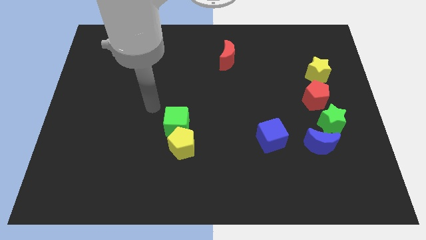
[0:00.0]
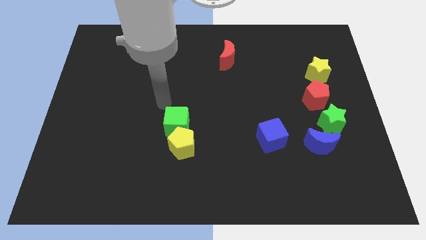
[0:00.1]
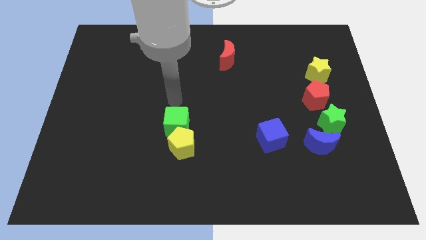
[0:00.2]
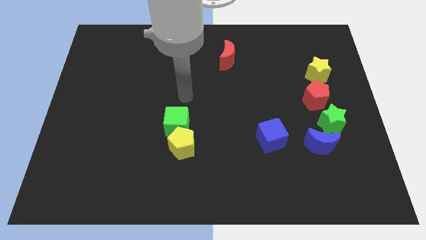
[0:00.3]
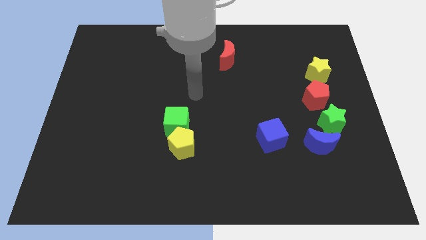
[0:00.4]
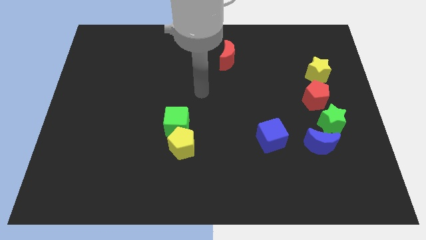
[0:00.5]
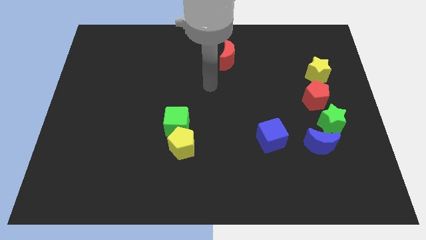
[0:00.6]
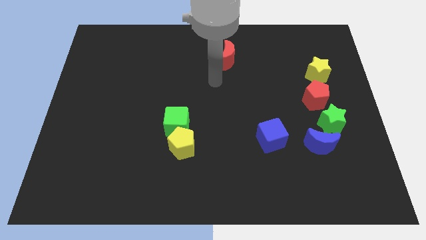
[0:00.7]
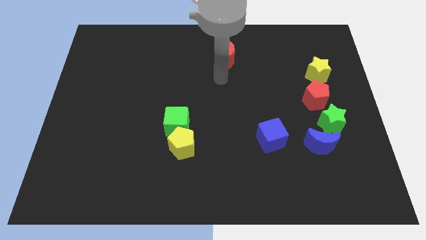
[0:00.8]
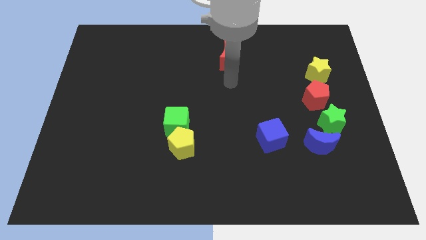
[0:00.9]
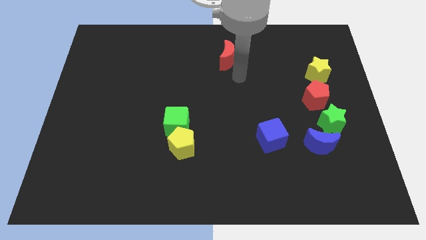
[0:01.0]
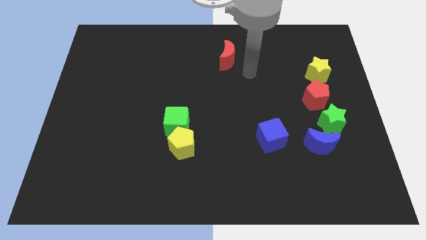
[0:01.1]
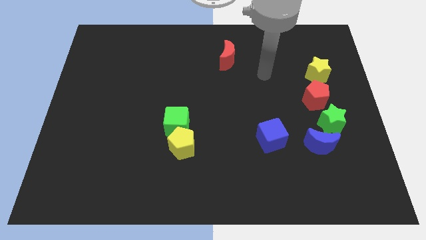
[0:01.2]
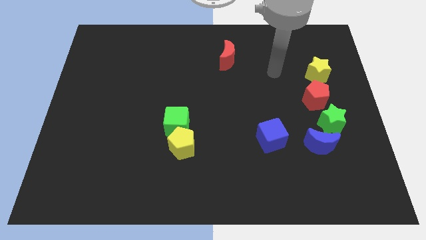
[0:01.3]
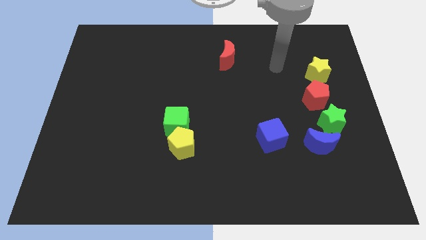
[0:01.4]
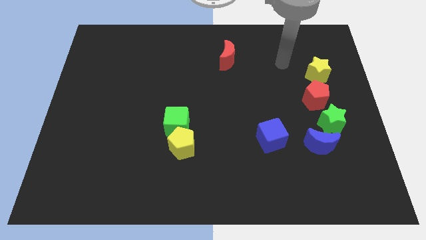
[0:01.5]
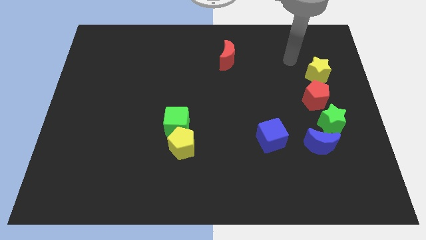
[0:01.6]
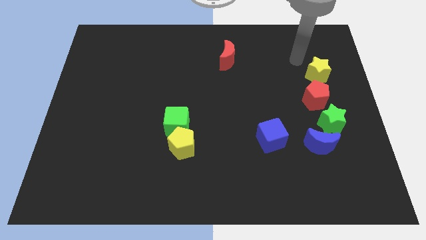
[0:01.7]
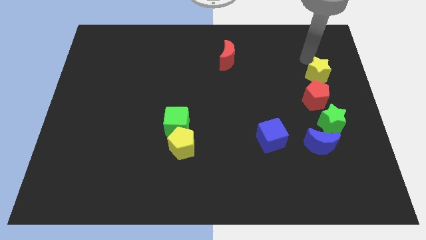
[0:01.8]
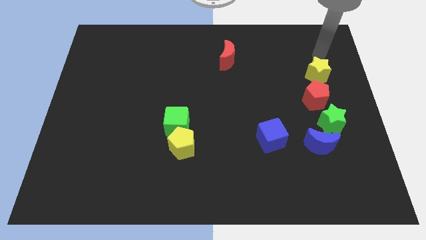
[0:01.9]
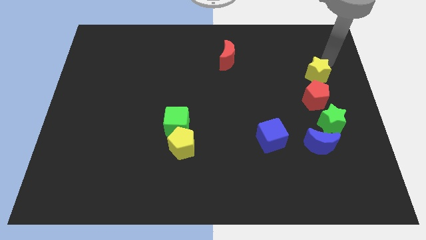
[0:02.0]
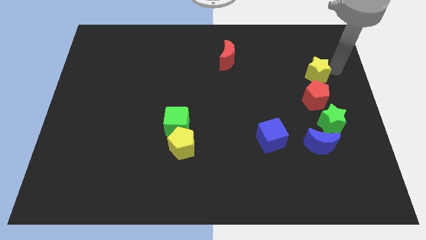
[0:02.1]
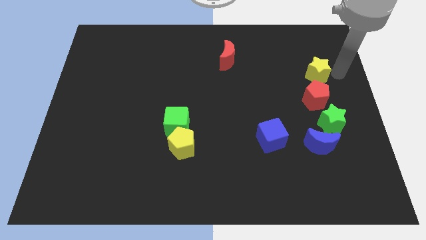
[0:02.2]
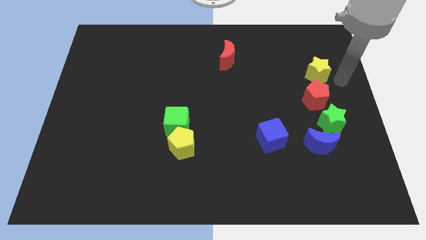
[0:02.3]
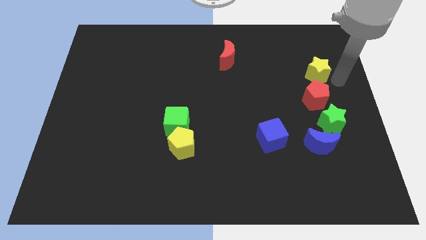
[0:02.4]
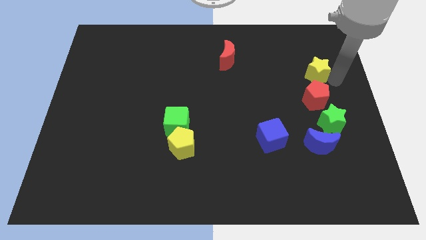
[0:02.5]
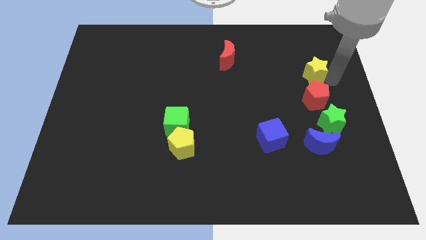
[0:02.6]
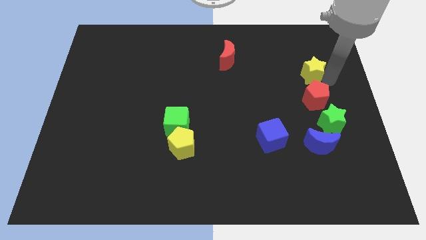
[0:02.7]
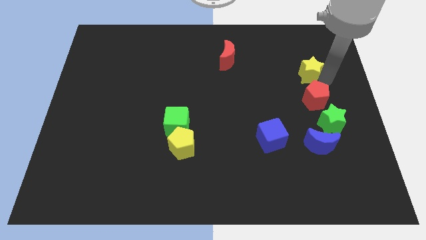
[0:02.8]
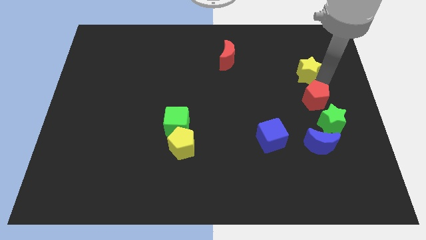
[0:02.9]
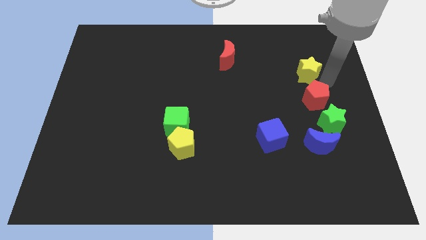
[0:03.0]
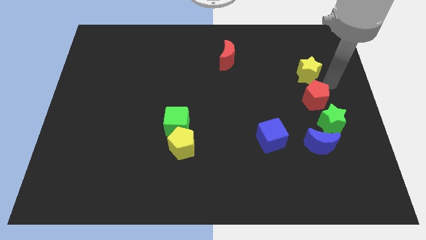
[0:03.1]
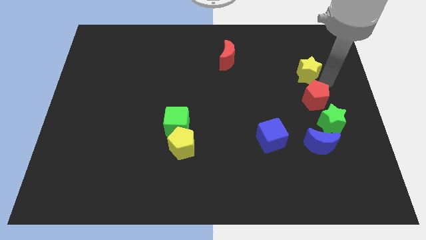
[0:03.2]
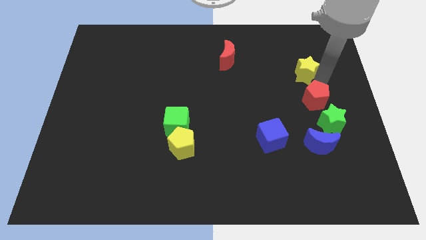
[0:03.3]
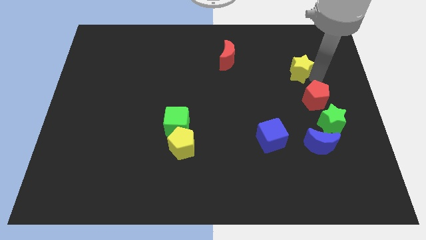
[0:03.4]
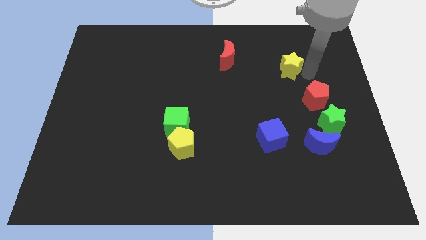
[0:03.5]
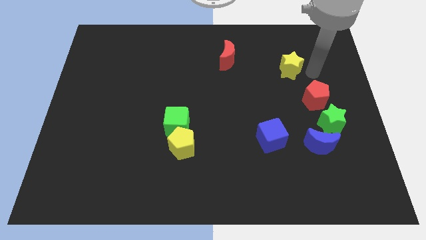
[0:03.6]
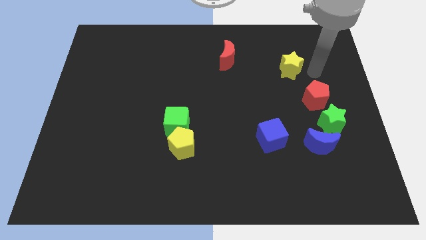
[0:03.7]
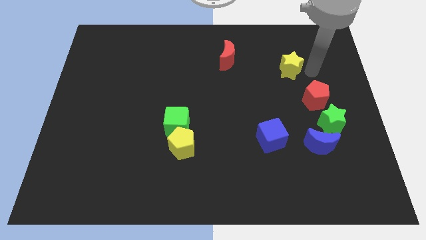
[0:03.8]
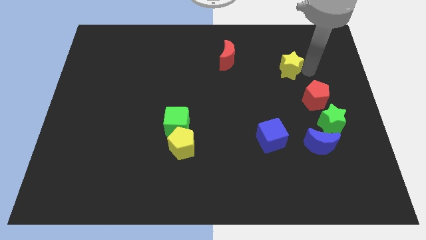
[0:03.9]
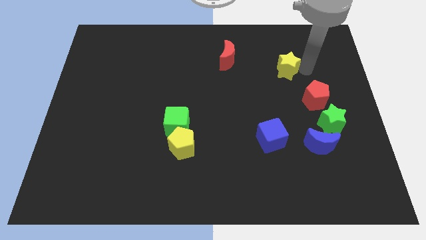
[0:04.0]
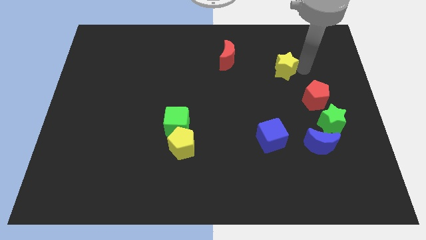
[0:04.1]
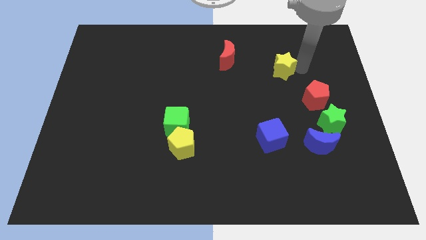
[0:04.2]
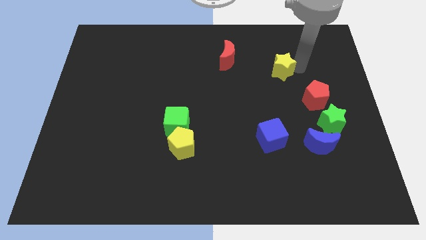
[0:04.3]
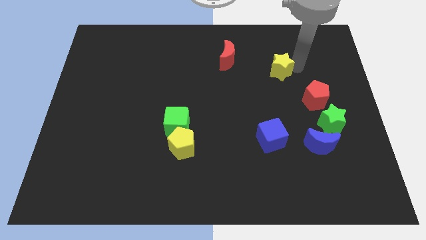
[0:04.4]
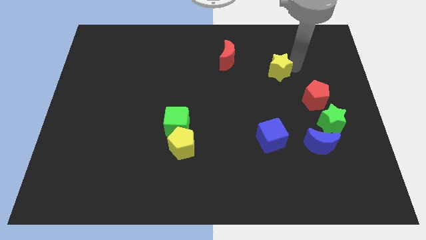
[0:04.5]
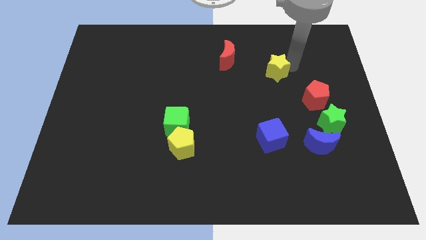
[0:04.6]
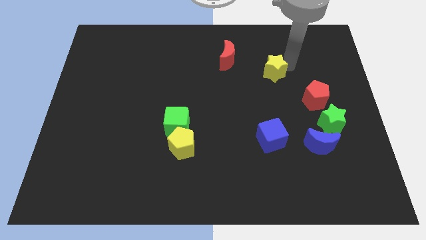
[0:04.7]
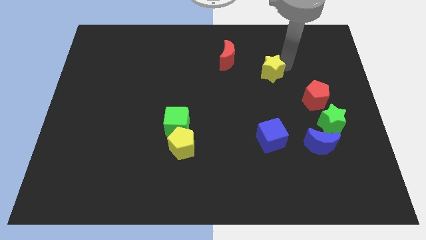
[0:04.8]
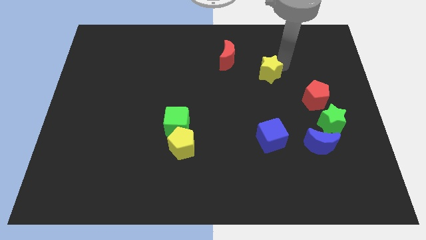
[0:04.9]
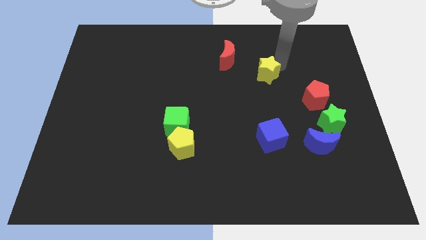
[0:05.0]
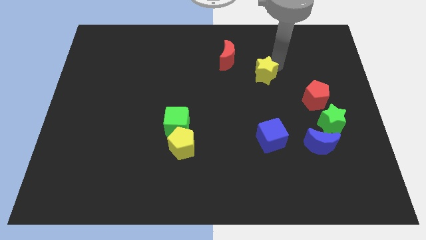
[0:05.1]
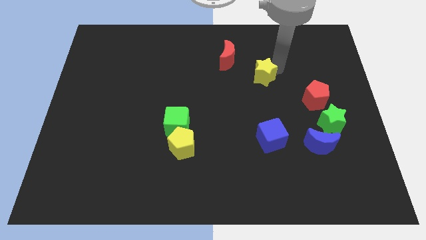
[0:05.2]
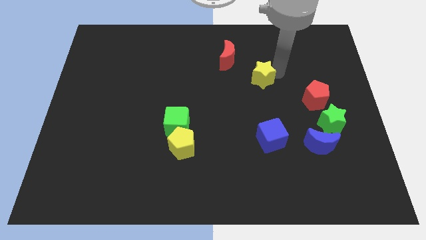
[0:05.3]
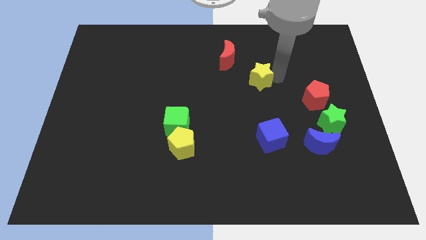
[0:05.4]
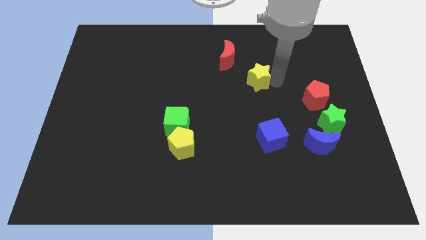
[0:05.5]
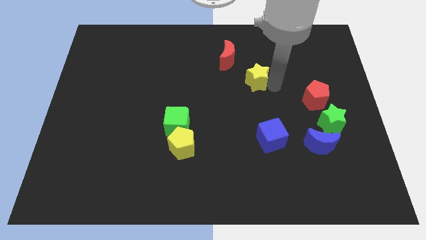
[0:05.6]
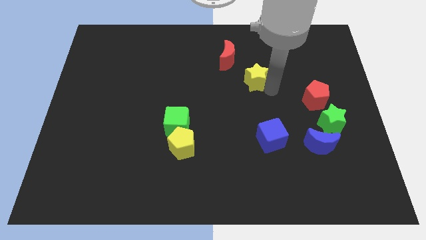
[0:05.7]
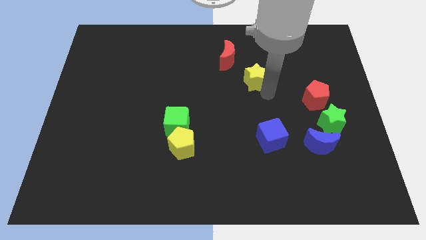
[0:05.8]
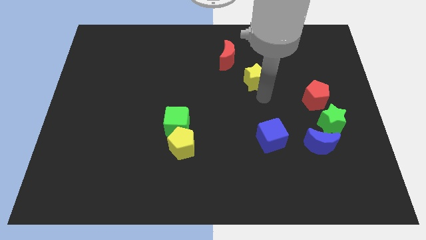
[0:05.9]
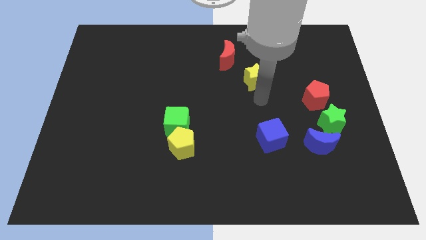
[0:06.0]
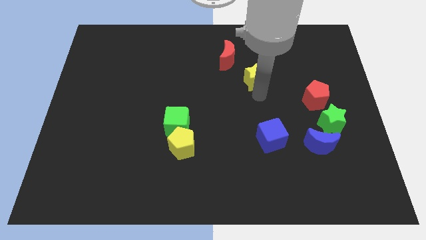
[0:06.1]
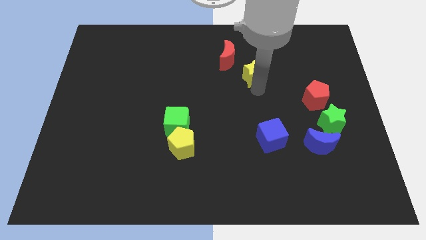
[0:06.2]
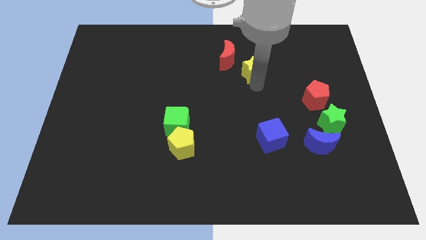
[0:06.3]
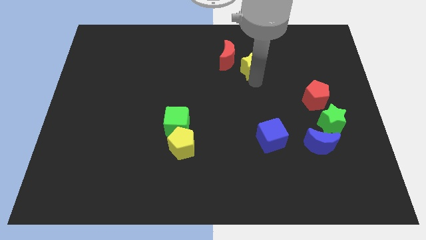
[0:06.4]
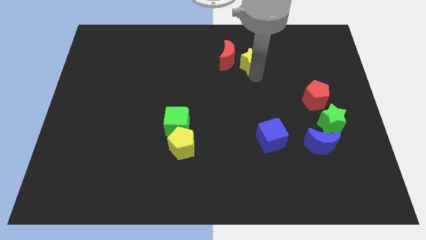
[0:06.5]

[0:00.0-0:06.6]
move the yellow star close to the red moon
